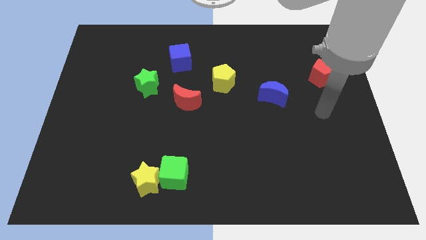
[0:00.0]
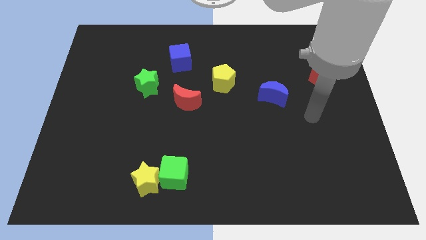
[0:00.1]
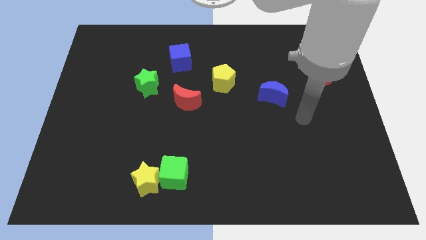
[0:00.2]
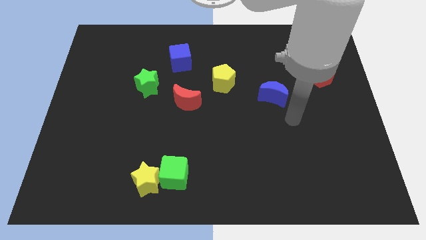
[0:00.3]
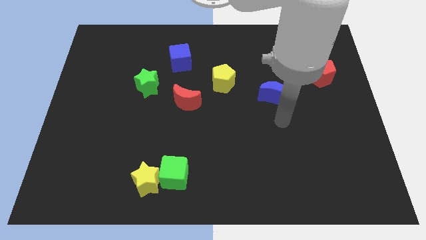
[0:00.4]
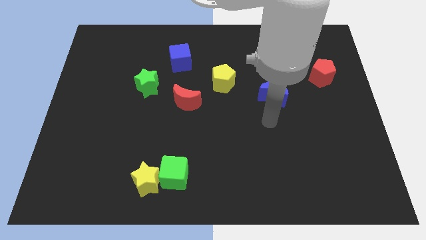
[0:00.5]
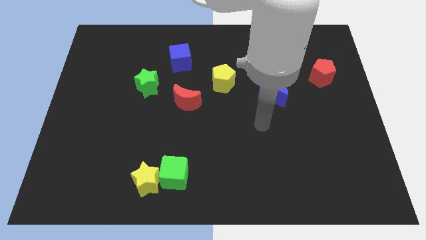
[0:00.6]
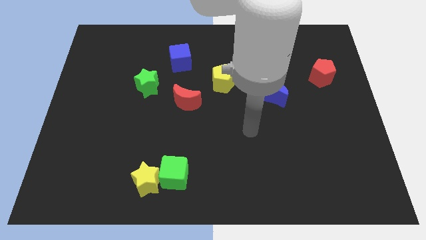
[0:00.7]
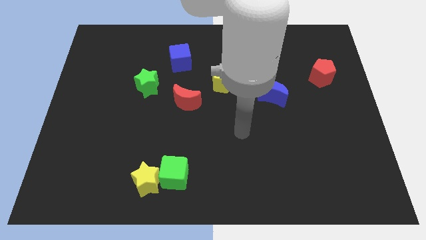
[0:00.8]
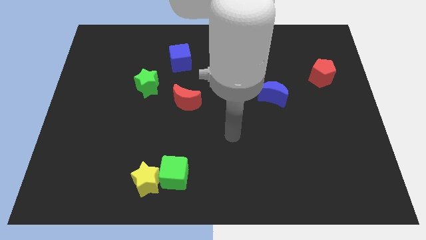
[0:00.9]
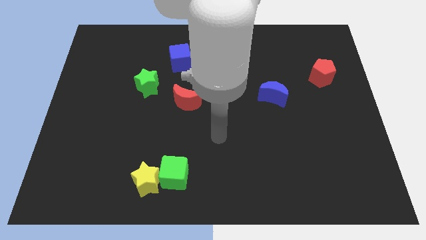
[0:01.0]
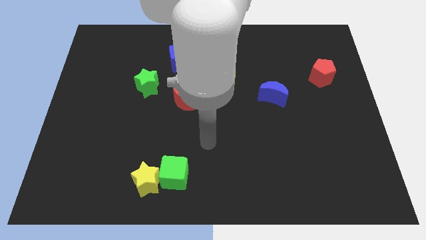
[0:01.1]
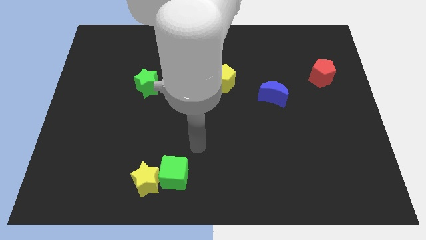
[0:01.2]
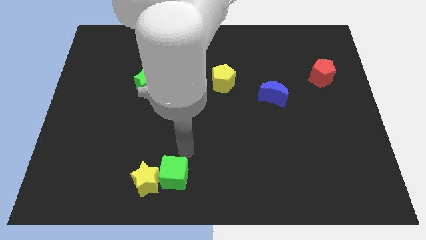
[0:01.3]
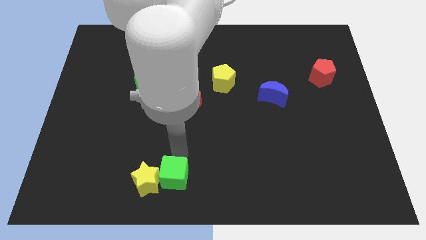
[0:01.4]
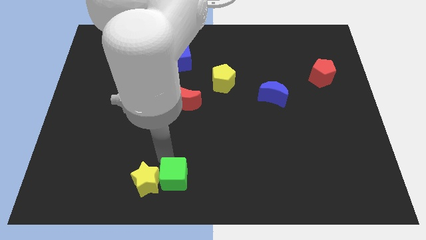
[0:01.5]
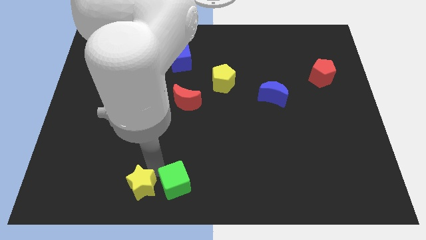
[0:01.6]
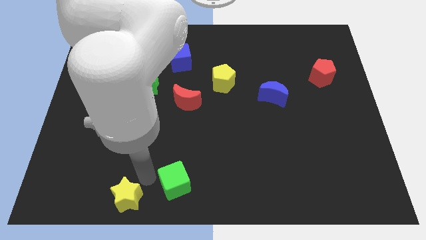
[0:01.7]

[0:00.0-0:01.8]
pull the green cube apart from the yellow star

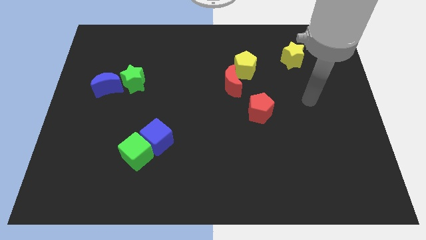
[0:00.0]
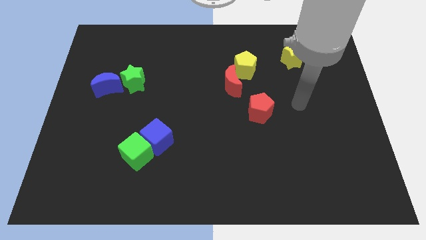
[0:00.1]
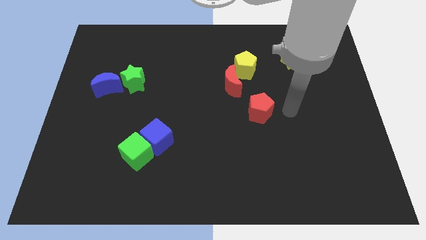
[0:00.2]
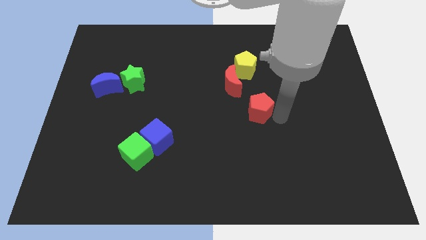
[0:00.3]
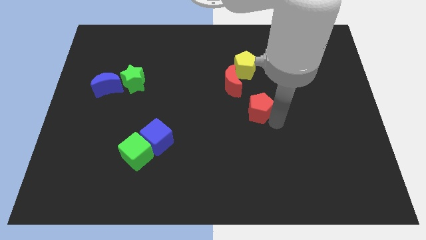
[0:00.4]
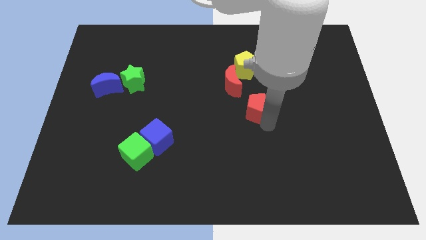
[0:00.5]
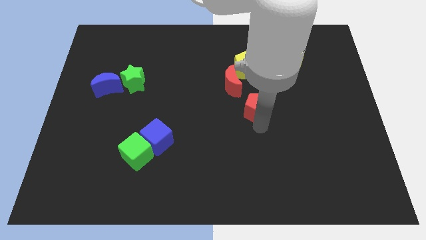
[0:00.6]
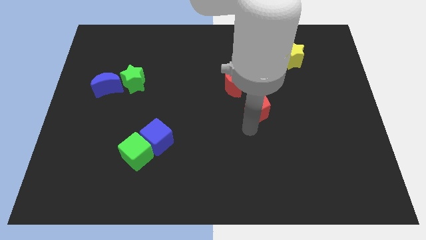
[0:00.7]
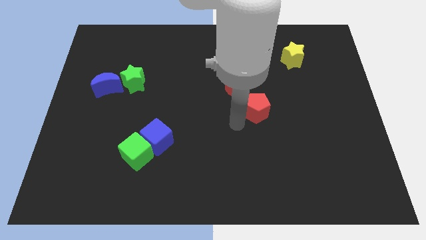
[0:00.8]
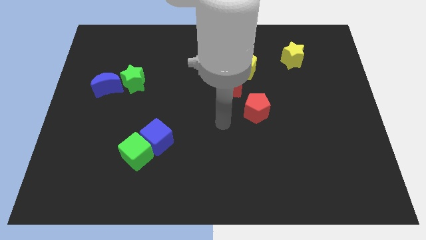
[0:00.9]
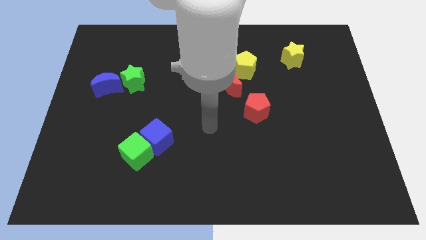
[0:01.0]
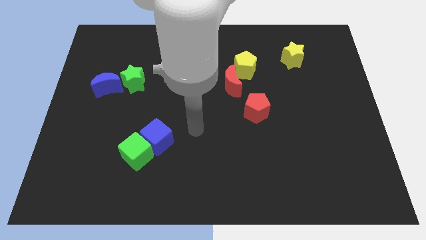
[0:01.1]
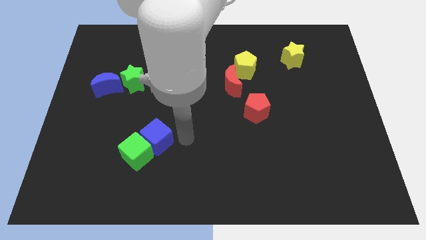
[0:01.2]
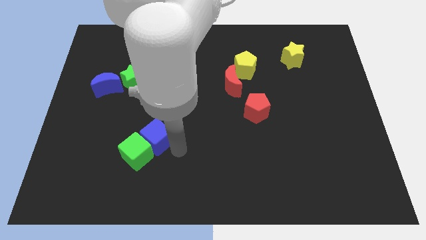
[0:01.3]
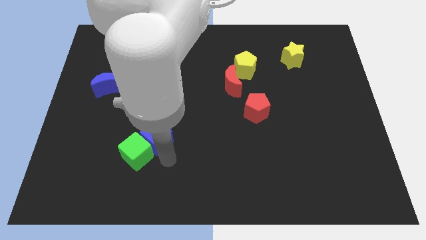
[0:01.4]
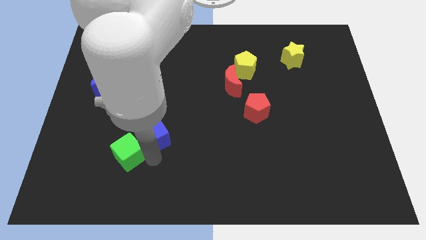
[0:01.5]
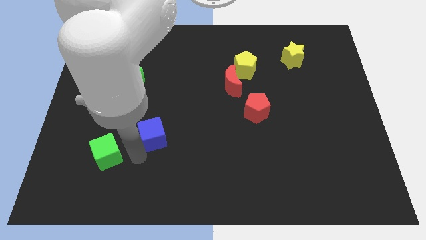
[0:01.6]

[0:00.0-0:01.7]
move the blue cube away from the green cube

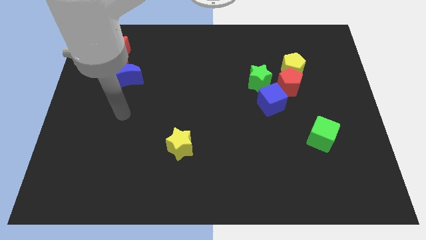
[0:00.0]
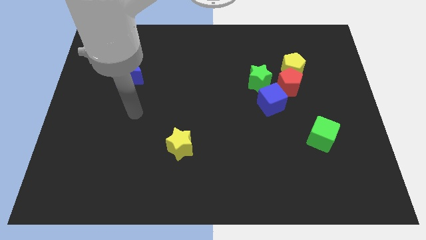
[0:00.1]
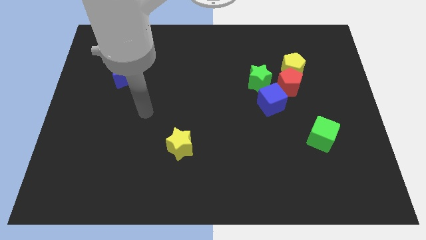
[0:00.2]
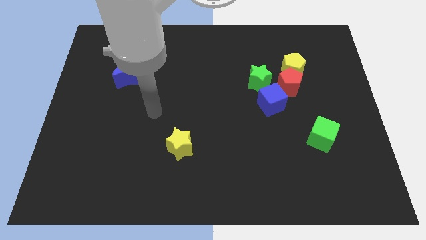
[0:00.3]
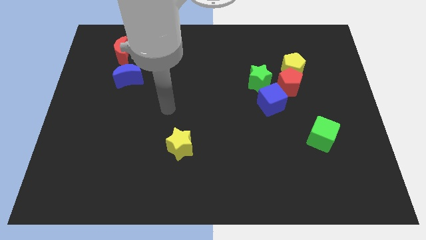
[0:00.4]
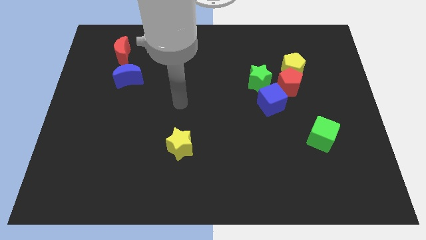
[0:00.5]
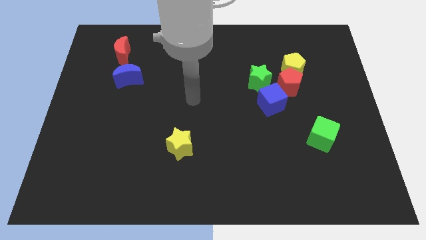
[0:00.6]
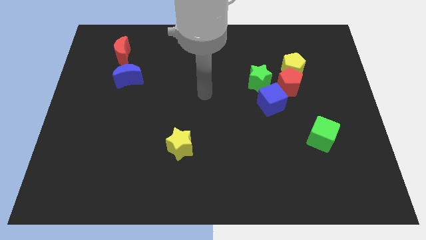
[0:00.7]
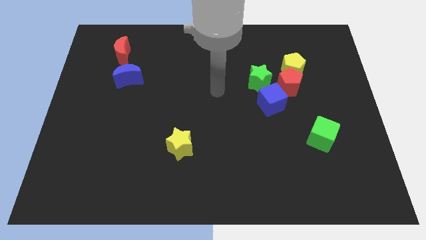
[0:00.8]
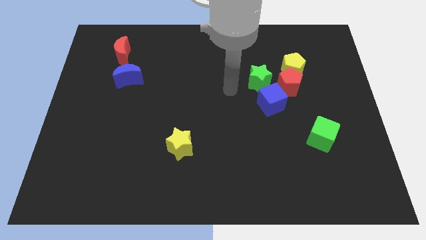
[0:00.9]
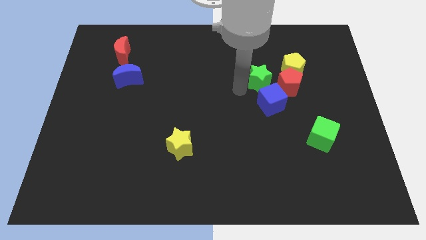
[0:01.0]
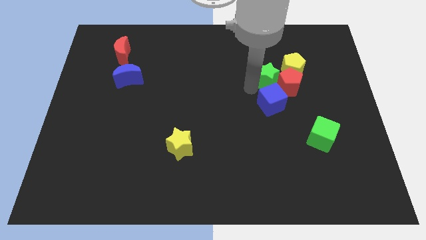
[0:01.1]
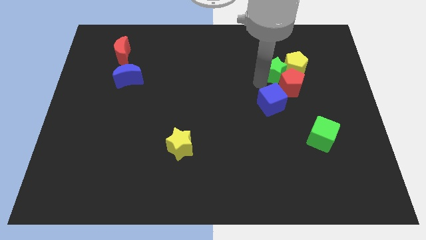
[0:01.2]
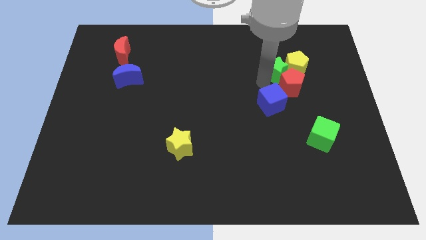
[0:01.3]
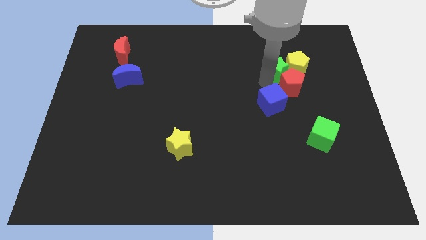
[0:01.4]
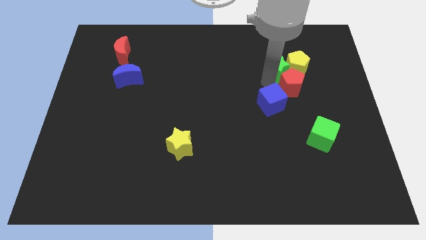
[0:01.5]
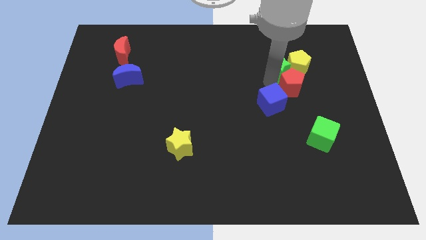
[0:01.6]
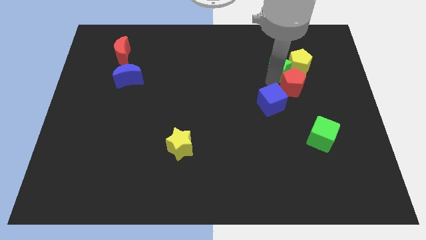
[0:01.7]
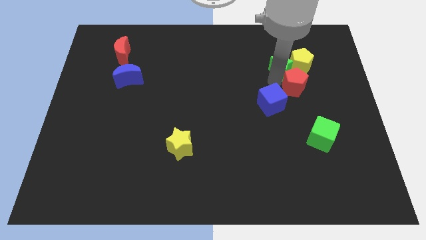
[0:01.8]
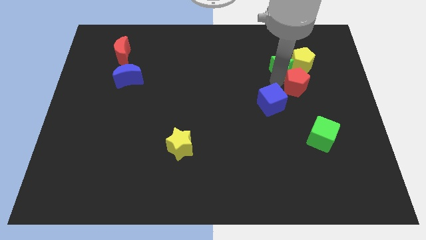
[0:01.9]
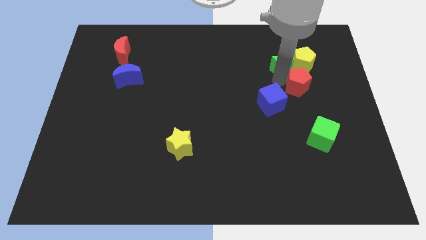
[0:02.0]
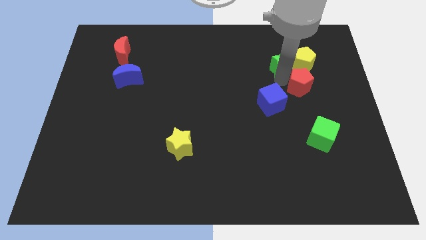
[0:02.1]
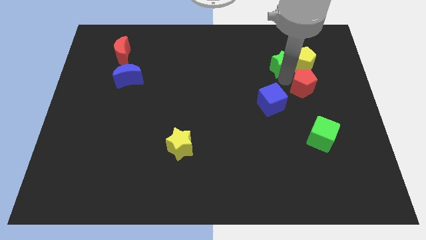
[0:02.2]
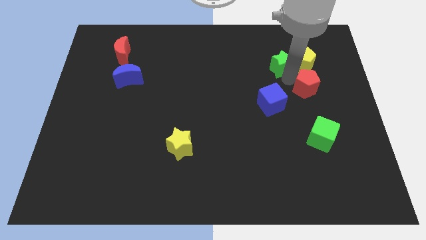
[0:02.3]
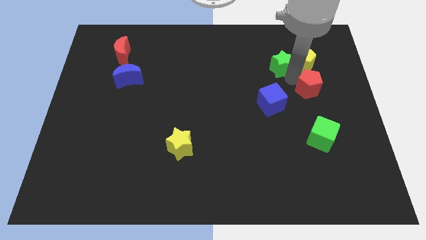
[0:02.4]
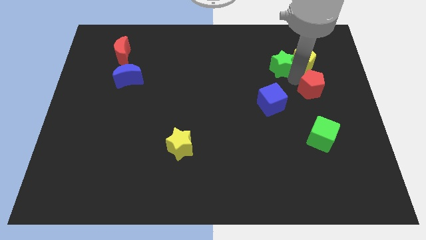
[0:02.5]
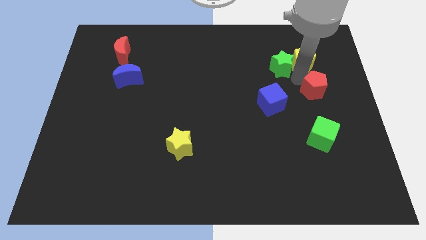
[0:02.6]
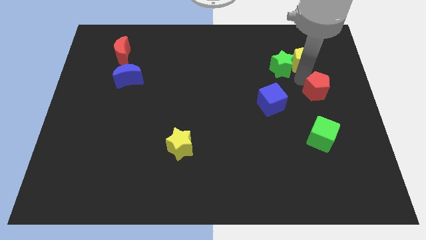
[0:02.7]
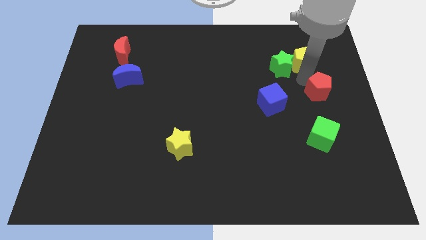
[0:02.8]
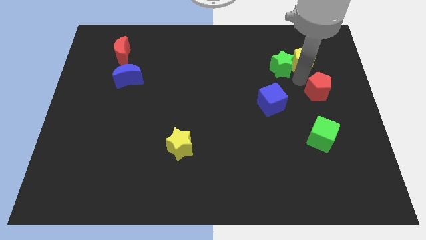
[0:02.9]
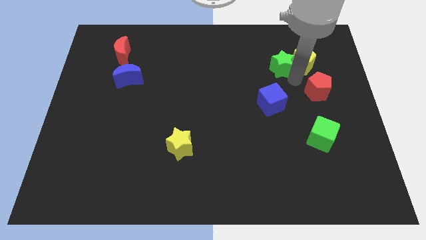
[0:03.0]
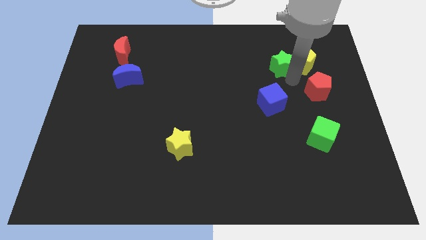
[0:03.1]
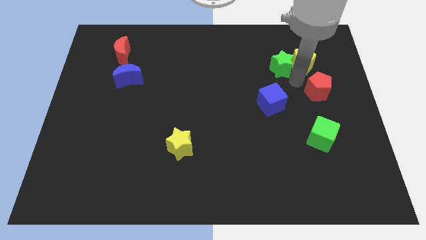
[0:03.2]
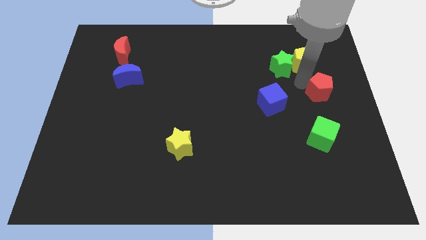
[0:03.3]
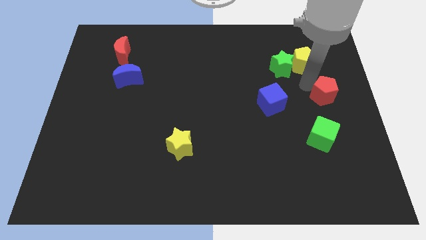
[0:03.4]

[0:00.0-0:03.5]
separate the red pentagon from the group of blocks

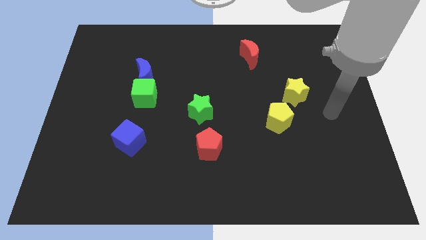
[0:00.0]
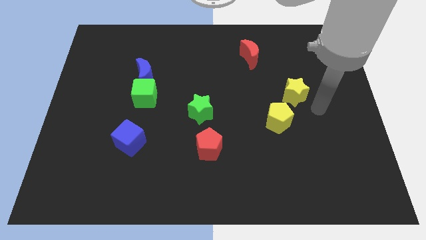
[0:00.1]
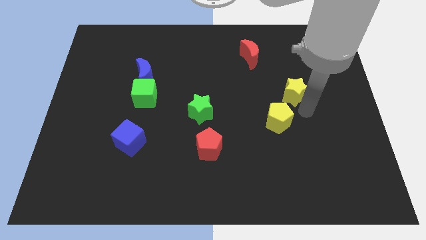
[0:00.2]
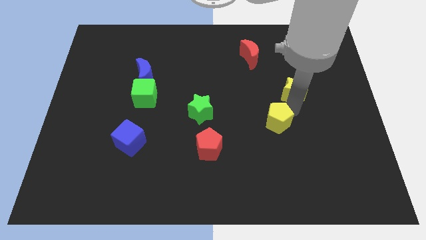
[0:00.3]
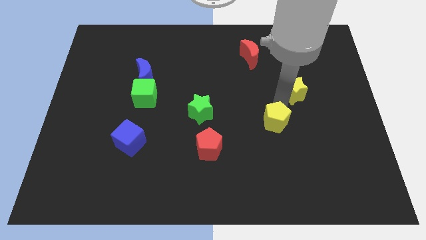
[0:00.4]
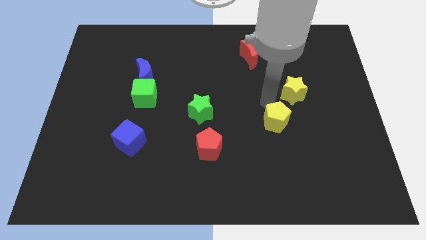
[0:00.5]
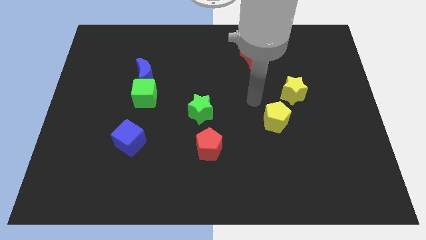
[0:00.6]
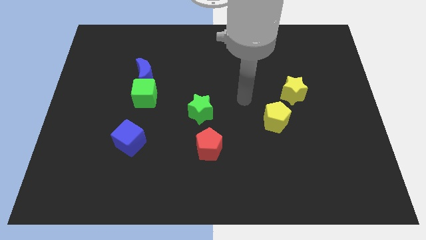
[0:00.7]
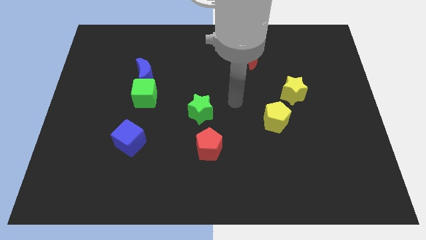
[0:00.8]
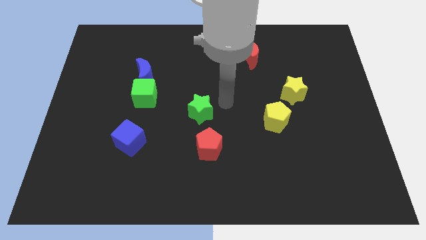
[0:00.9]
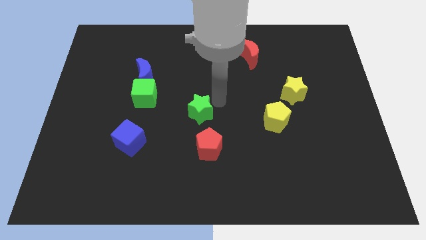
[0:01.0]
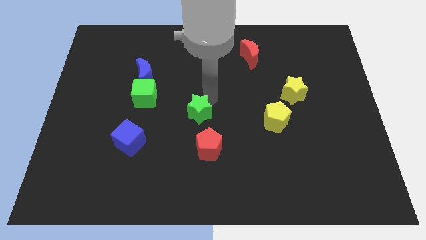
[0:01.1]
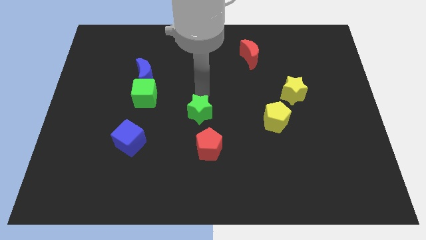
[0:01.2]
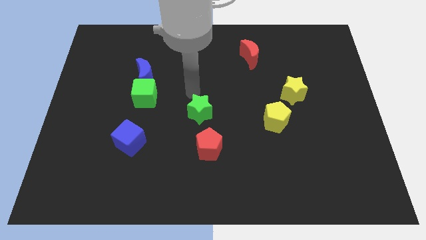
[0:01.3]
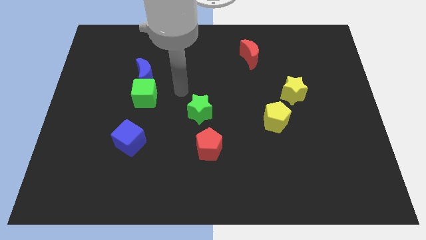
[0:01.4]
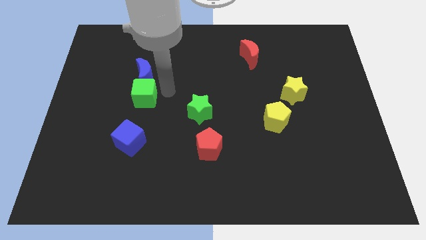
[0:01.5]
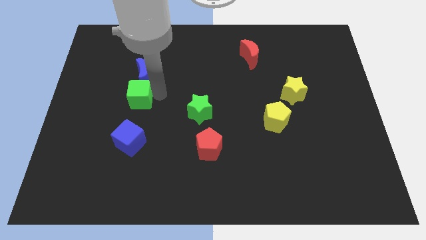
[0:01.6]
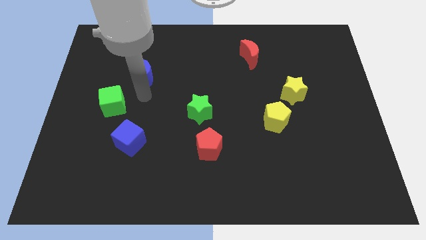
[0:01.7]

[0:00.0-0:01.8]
separate the blue moon from the green cube

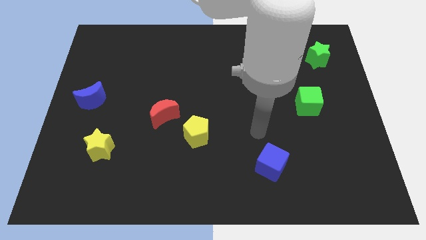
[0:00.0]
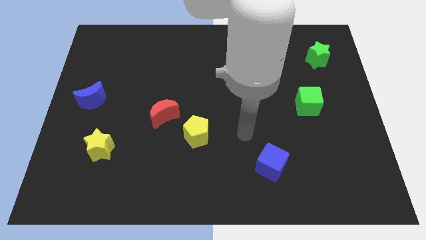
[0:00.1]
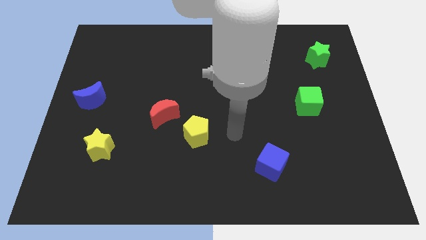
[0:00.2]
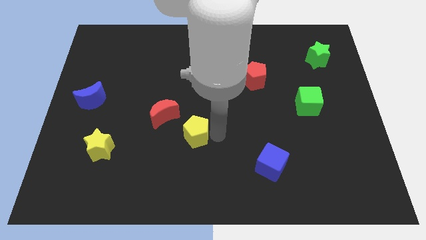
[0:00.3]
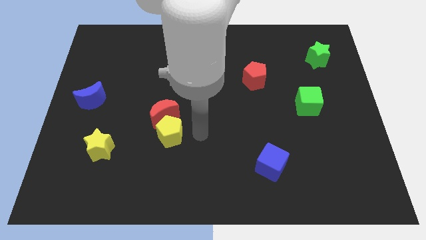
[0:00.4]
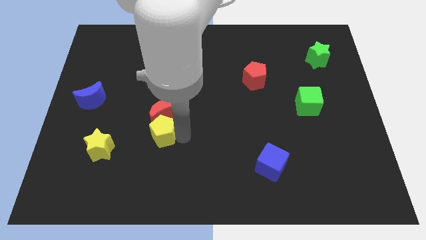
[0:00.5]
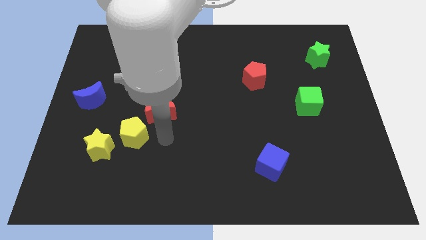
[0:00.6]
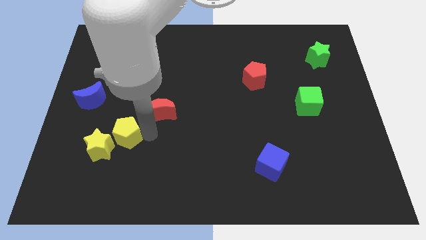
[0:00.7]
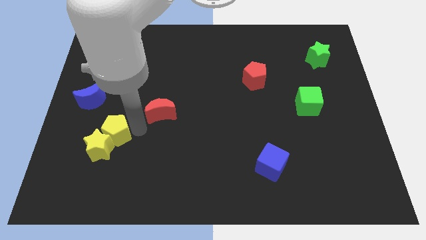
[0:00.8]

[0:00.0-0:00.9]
move the red moon away from the yellow pentagon
